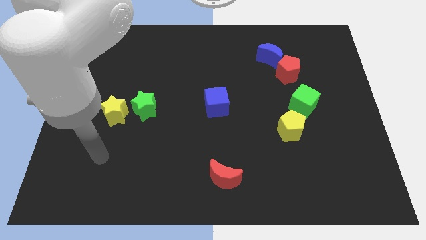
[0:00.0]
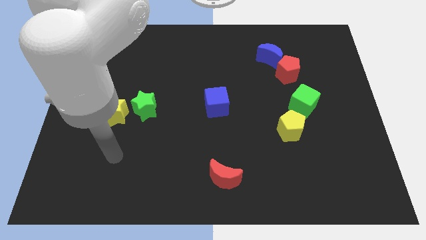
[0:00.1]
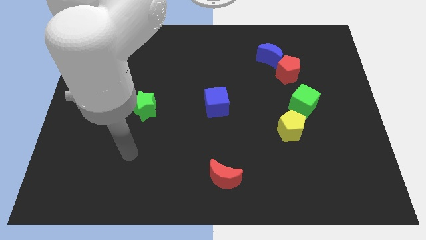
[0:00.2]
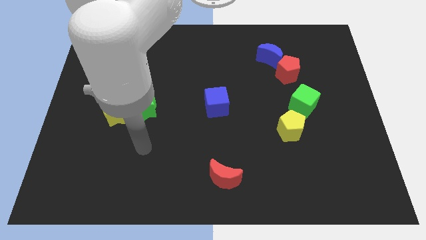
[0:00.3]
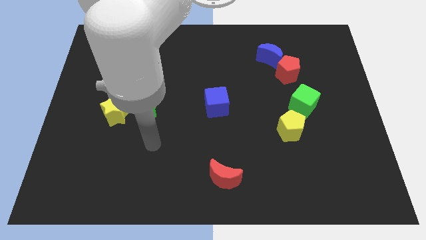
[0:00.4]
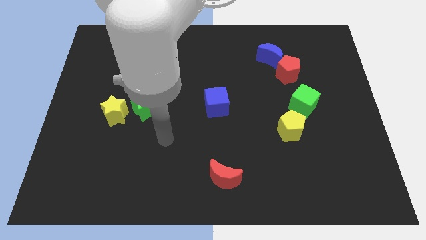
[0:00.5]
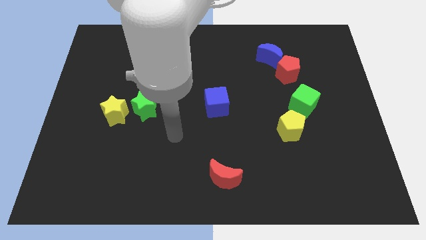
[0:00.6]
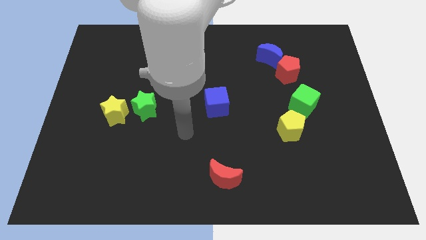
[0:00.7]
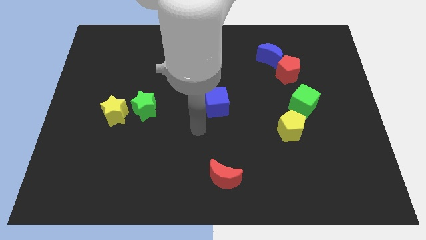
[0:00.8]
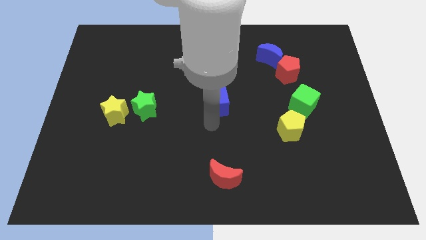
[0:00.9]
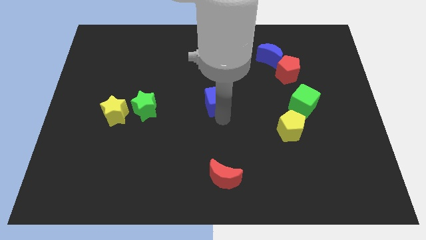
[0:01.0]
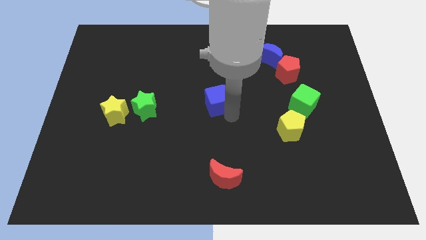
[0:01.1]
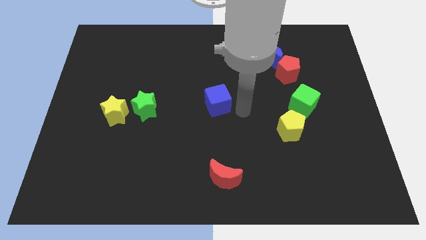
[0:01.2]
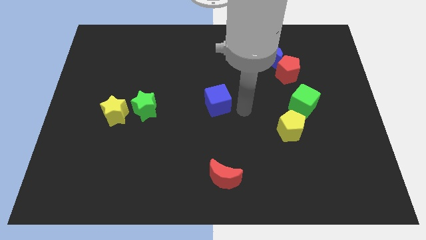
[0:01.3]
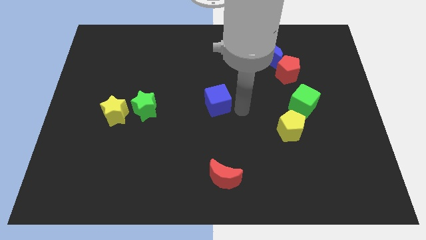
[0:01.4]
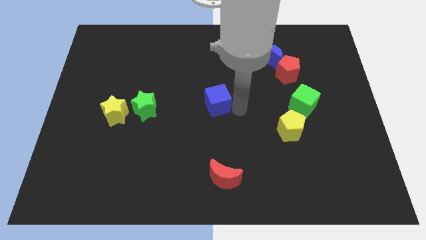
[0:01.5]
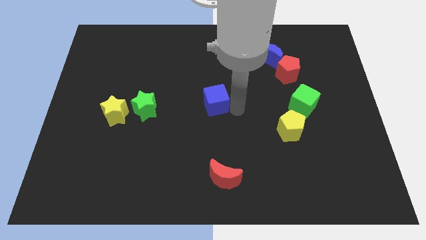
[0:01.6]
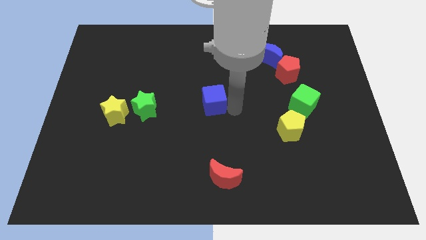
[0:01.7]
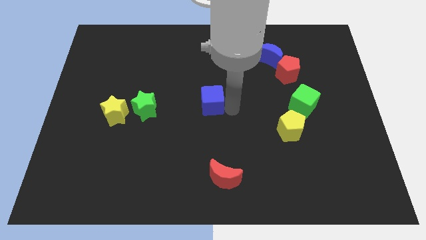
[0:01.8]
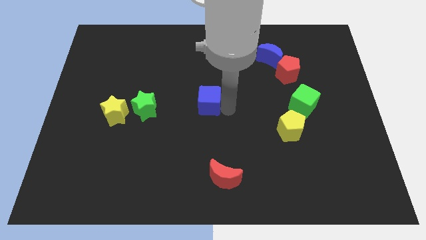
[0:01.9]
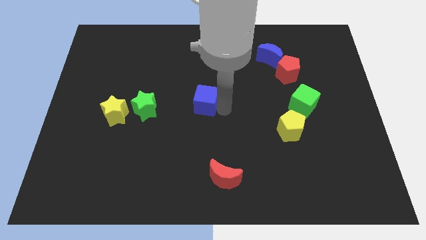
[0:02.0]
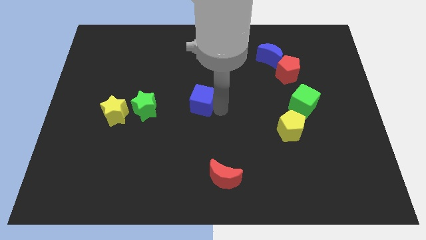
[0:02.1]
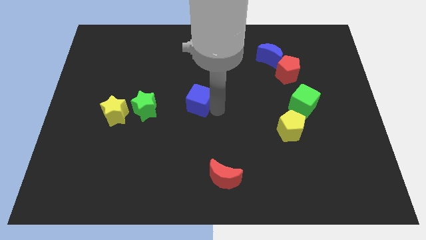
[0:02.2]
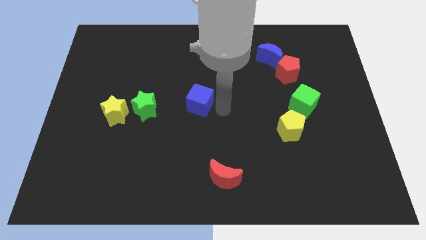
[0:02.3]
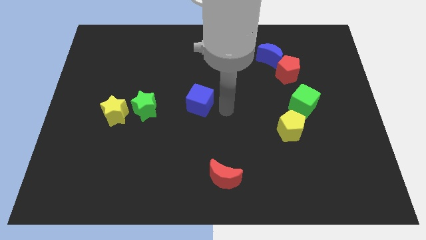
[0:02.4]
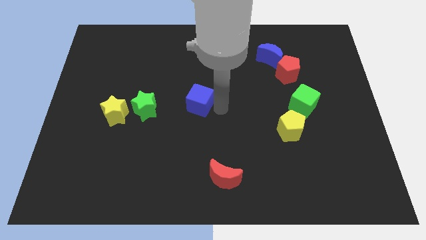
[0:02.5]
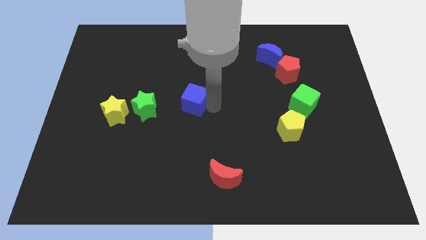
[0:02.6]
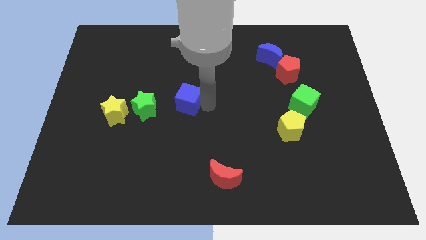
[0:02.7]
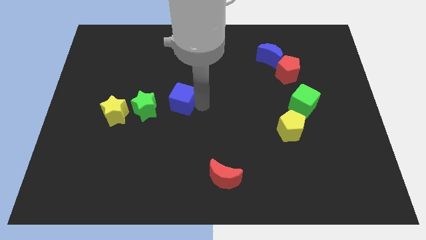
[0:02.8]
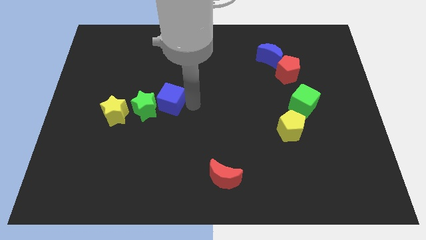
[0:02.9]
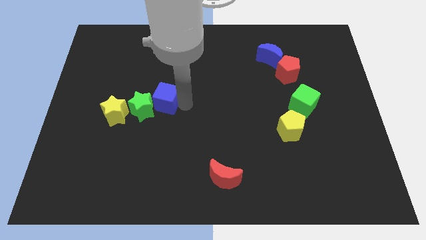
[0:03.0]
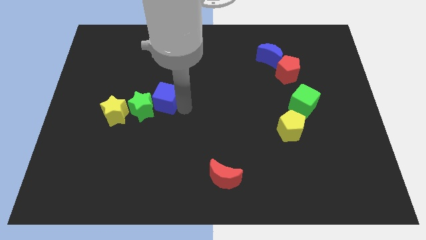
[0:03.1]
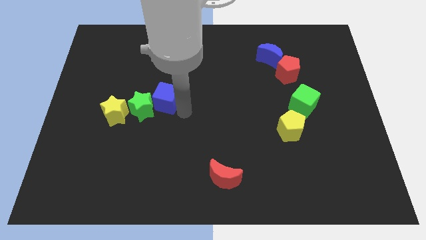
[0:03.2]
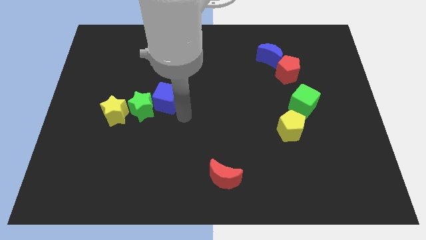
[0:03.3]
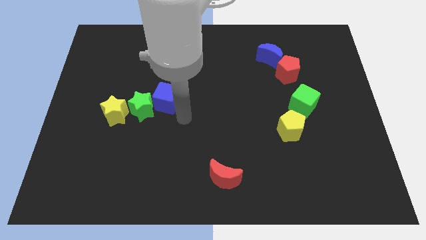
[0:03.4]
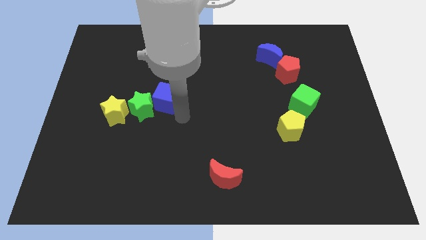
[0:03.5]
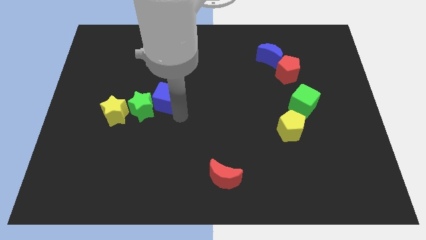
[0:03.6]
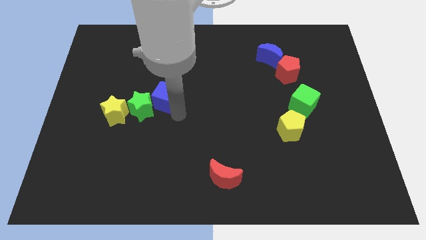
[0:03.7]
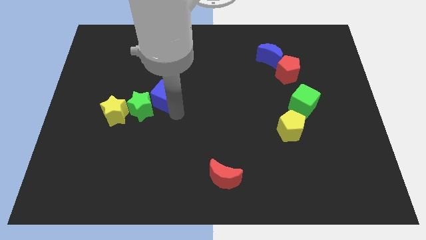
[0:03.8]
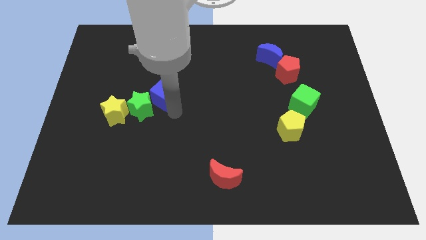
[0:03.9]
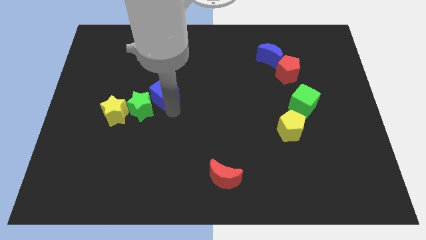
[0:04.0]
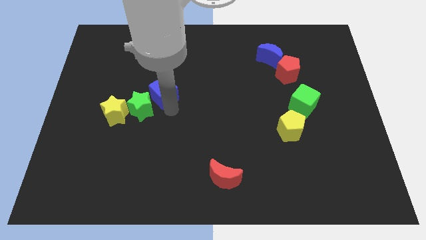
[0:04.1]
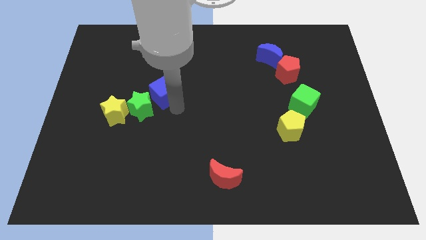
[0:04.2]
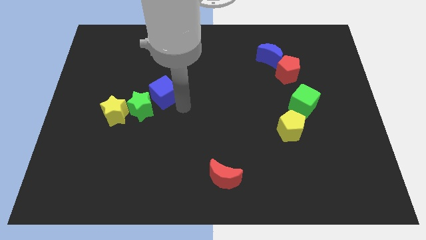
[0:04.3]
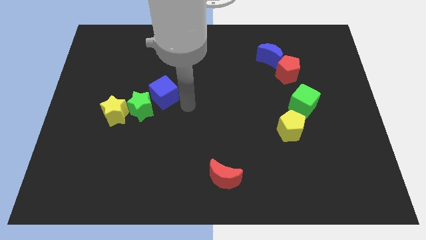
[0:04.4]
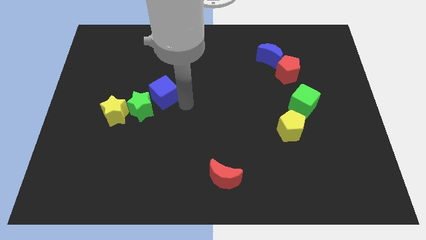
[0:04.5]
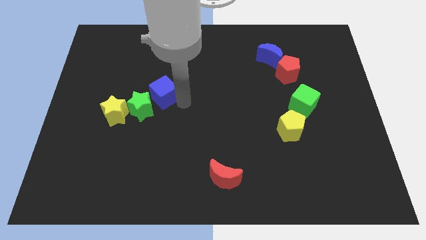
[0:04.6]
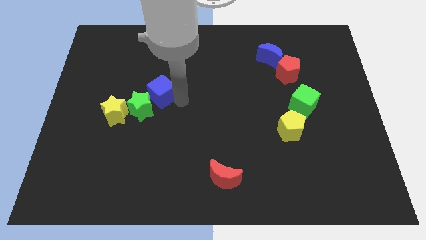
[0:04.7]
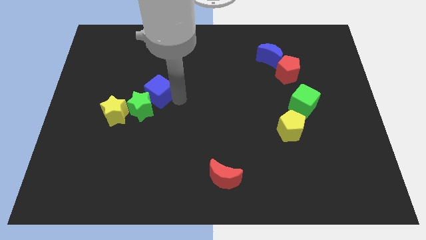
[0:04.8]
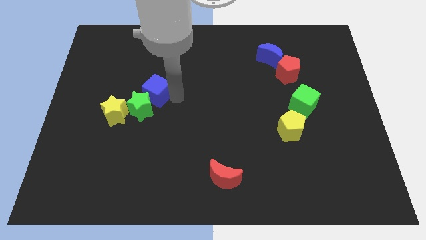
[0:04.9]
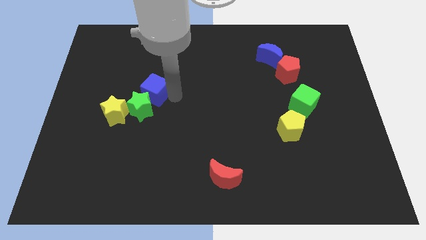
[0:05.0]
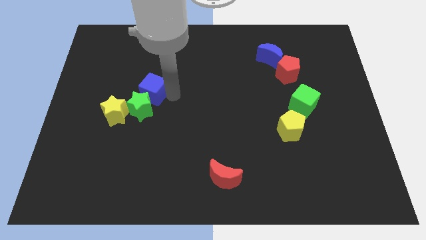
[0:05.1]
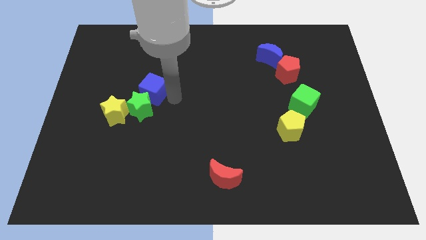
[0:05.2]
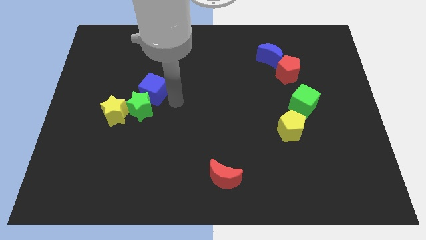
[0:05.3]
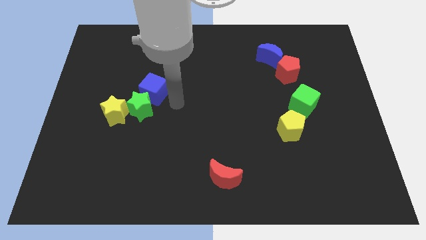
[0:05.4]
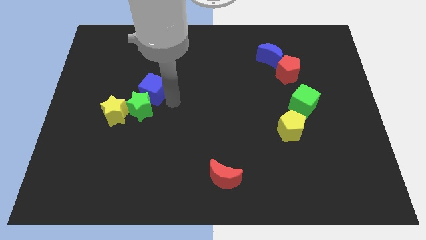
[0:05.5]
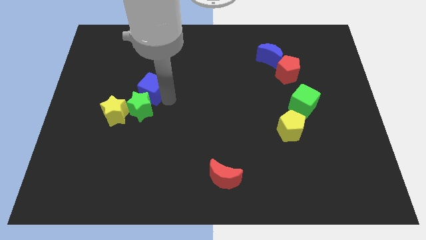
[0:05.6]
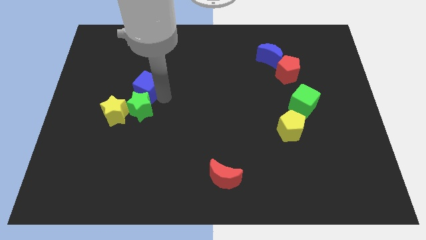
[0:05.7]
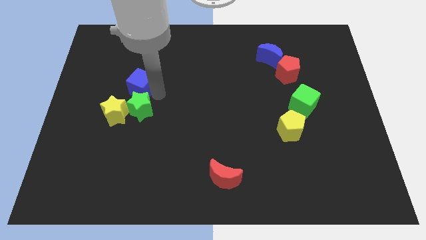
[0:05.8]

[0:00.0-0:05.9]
put the blue cube to the top of the yellow star

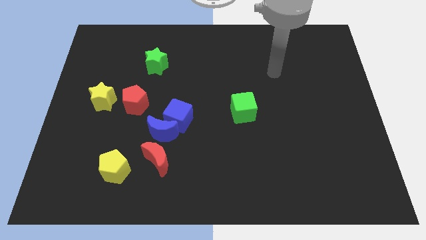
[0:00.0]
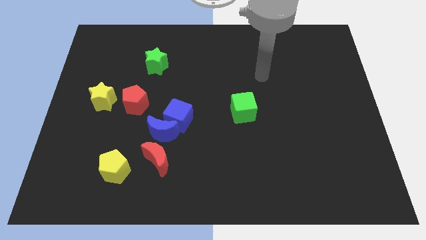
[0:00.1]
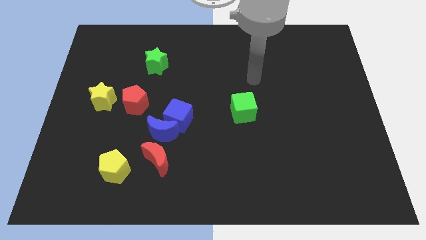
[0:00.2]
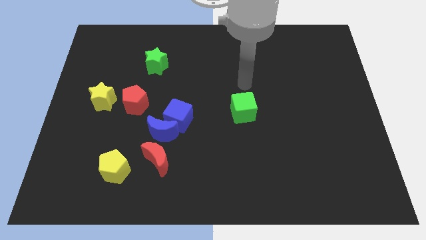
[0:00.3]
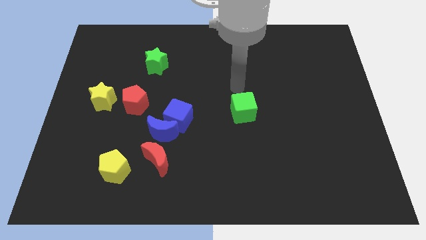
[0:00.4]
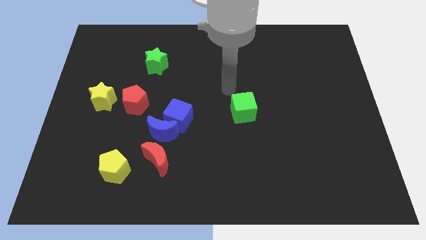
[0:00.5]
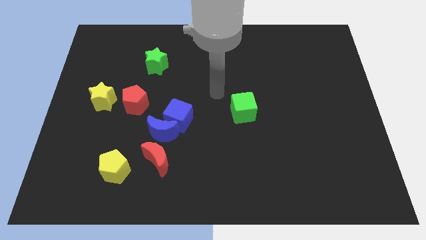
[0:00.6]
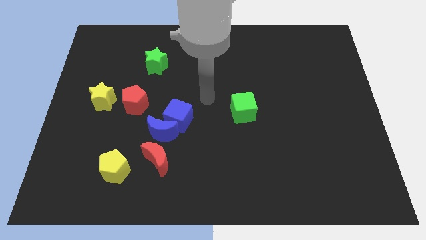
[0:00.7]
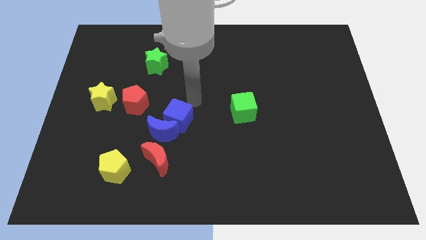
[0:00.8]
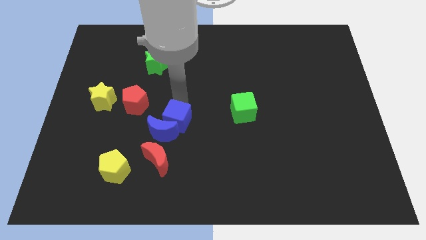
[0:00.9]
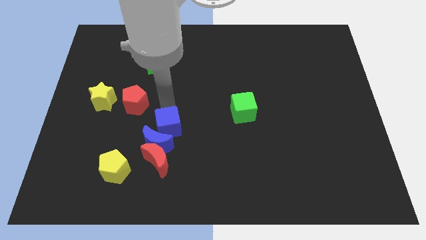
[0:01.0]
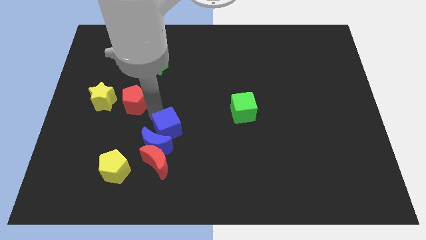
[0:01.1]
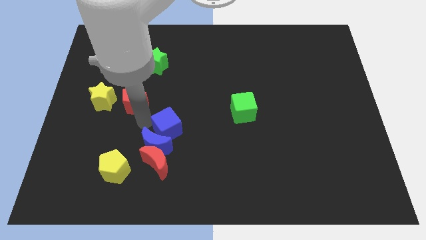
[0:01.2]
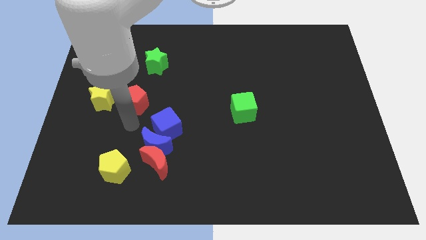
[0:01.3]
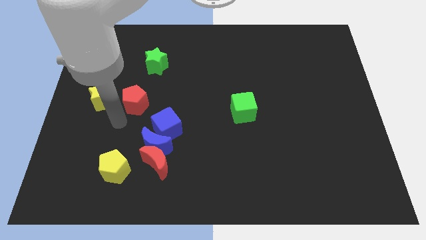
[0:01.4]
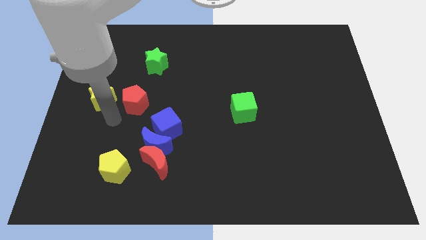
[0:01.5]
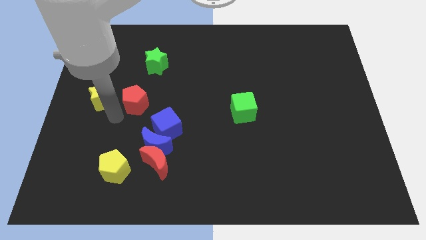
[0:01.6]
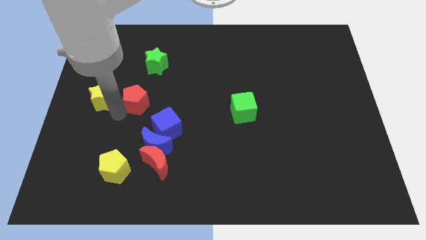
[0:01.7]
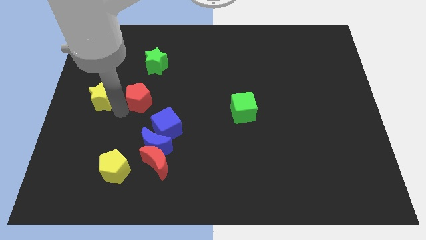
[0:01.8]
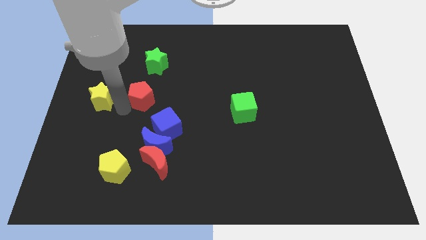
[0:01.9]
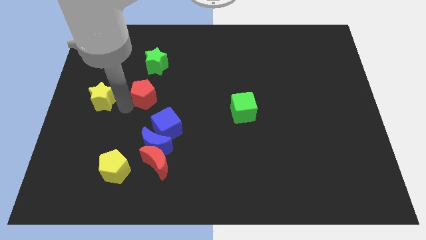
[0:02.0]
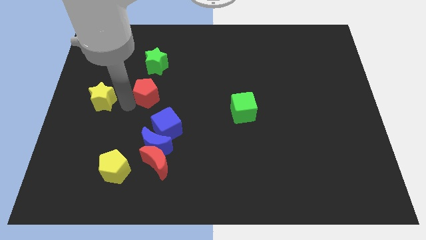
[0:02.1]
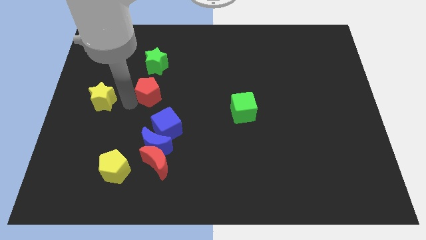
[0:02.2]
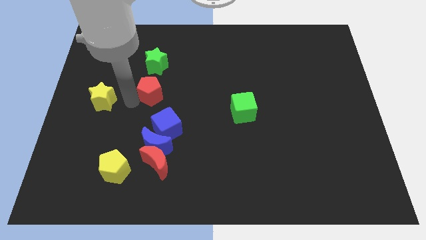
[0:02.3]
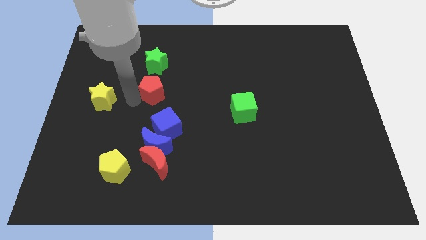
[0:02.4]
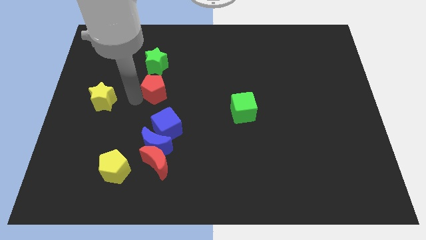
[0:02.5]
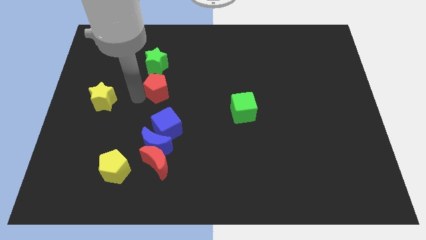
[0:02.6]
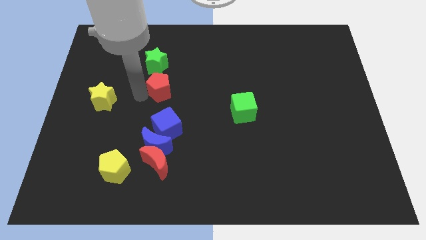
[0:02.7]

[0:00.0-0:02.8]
slide the red pentagon diagonally down and to the right of the green star
